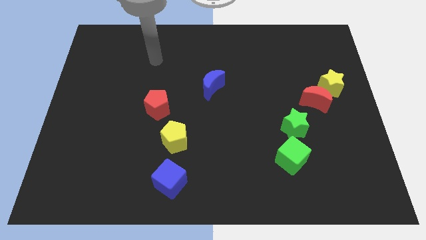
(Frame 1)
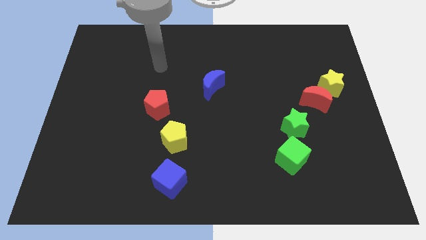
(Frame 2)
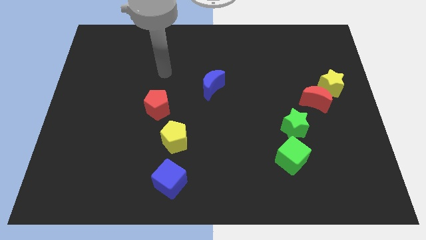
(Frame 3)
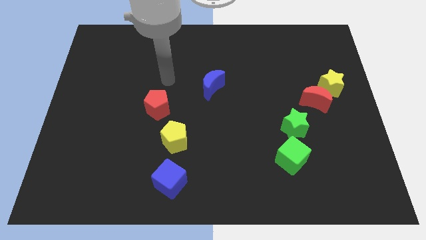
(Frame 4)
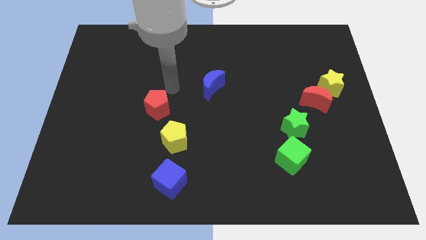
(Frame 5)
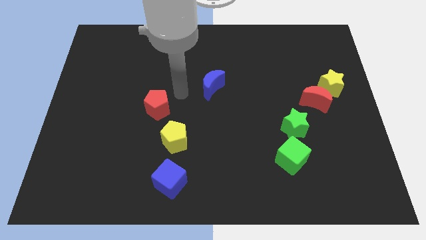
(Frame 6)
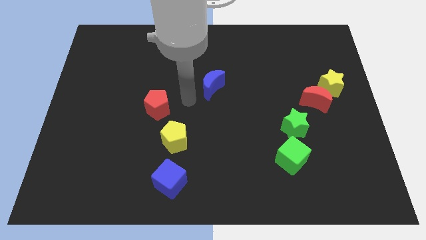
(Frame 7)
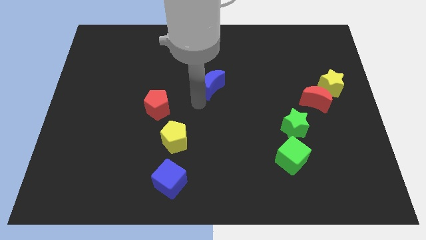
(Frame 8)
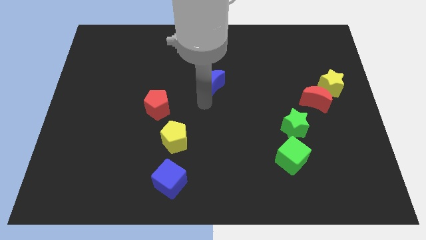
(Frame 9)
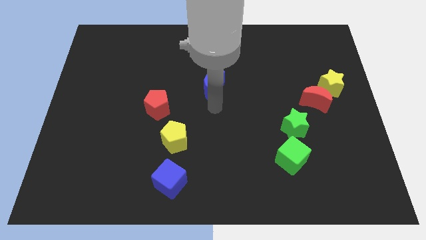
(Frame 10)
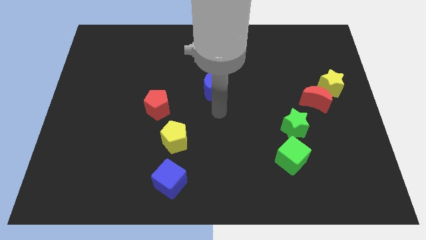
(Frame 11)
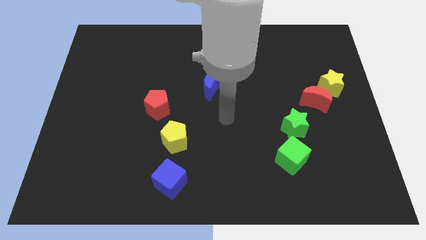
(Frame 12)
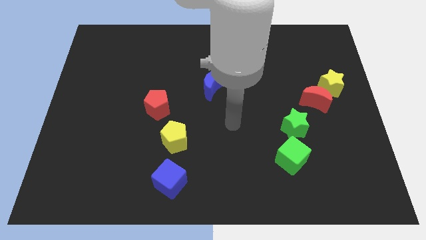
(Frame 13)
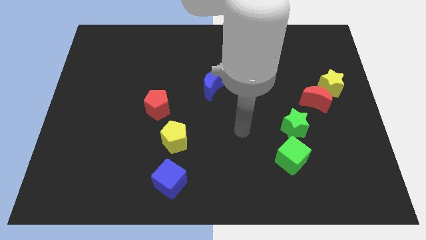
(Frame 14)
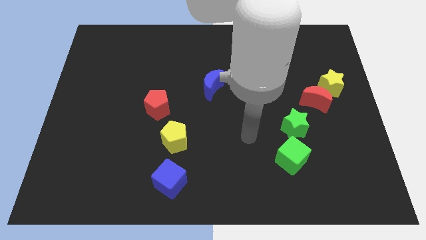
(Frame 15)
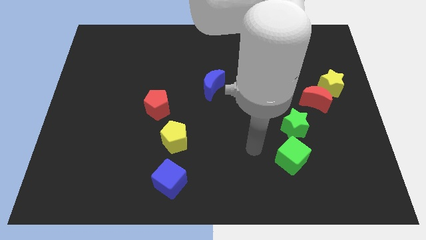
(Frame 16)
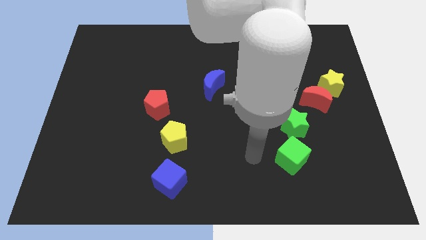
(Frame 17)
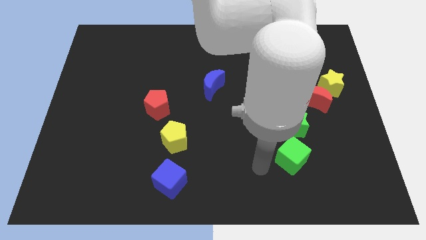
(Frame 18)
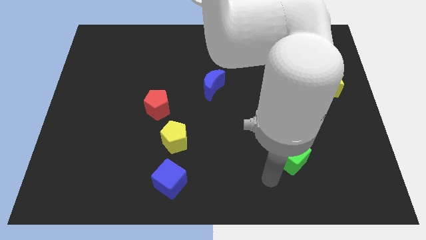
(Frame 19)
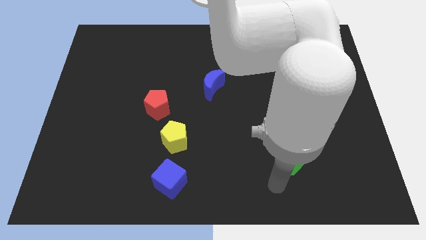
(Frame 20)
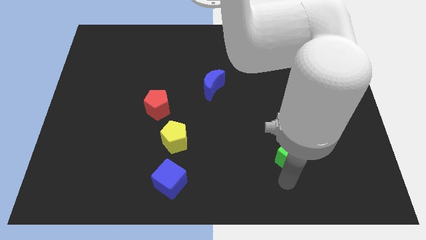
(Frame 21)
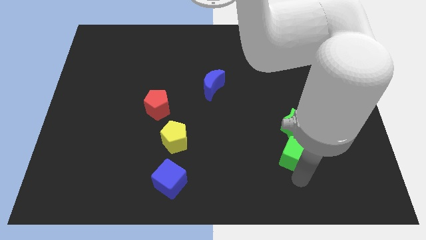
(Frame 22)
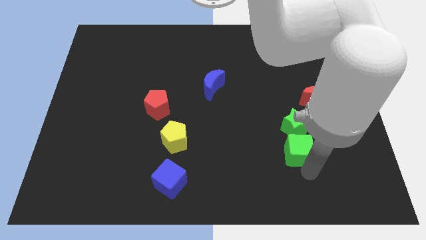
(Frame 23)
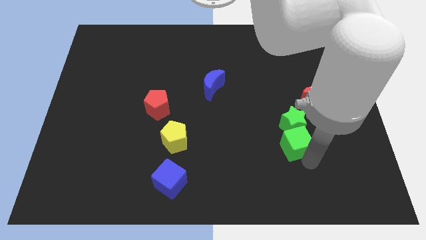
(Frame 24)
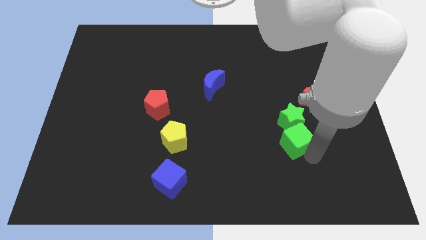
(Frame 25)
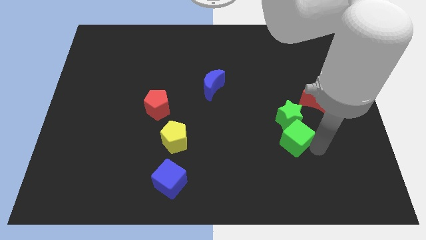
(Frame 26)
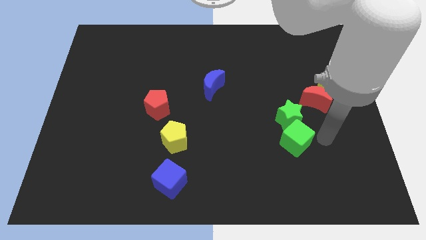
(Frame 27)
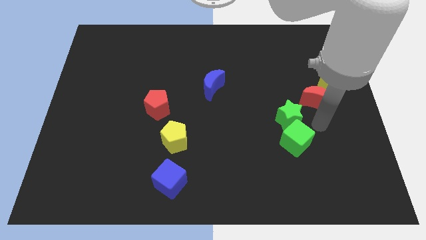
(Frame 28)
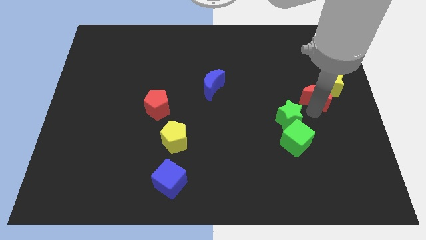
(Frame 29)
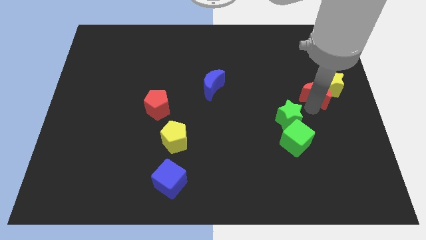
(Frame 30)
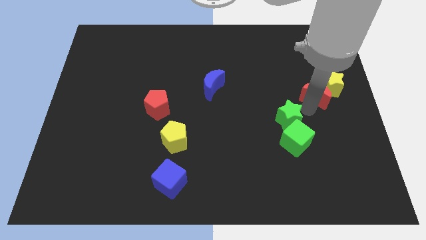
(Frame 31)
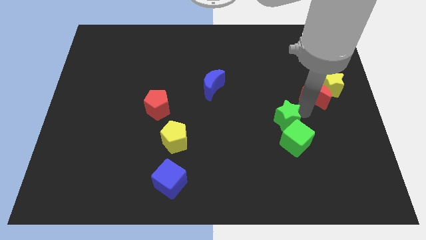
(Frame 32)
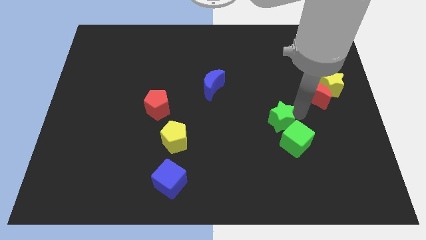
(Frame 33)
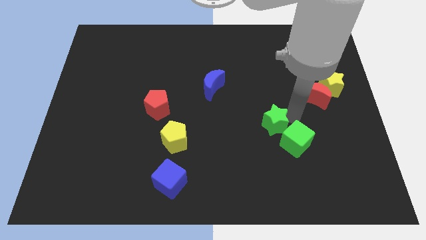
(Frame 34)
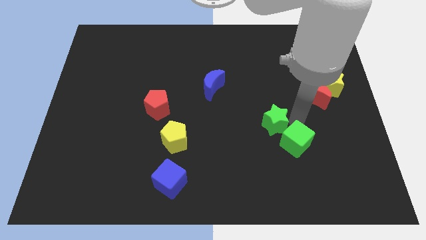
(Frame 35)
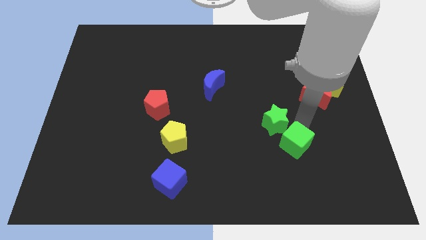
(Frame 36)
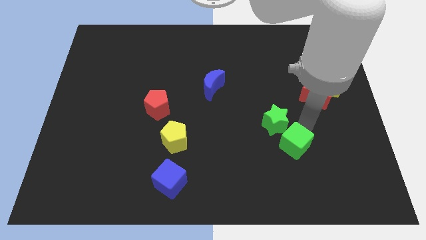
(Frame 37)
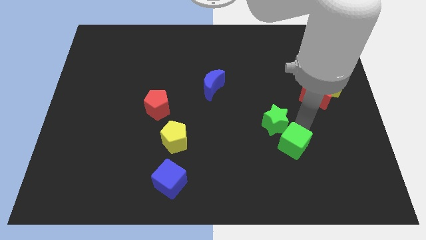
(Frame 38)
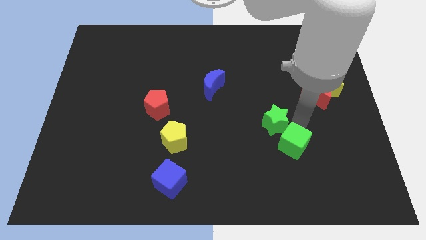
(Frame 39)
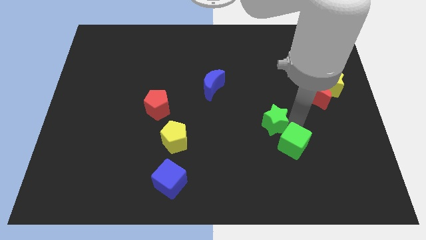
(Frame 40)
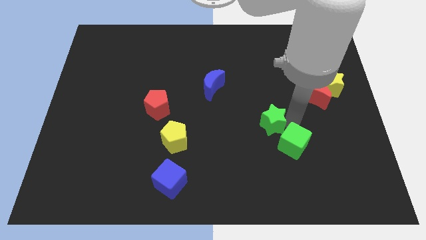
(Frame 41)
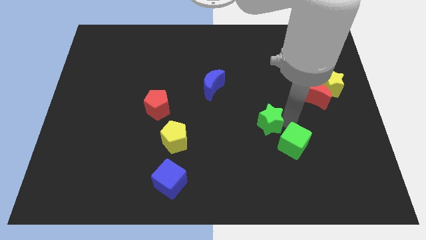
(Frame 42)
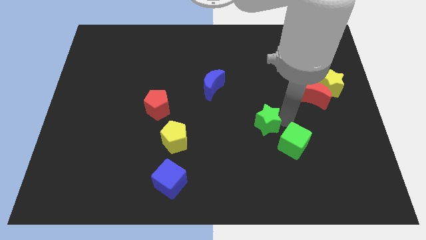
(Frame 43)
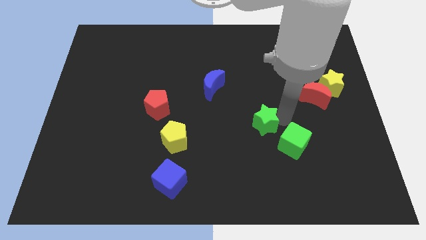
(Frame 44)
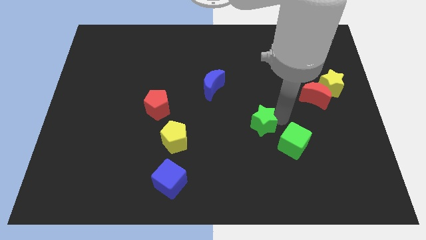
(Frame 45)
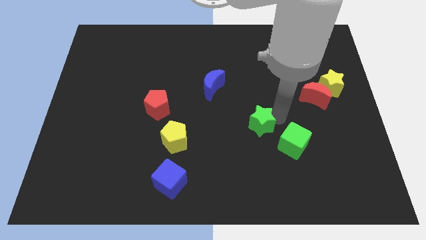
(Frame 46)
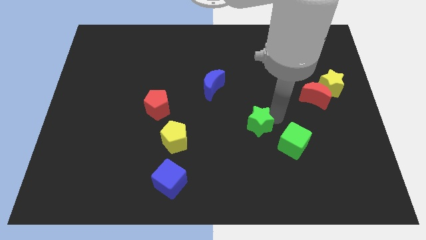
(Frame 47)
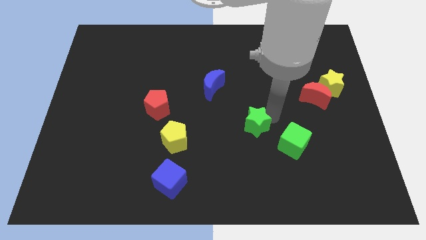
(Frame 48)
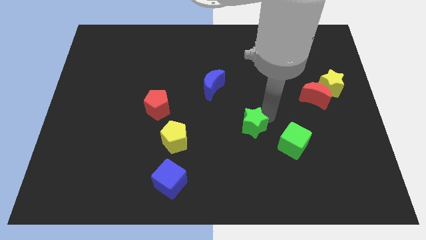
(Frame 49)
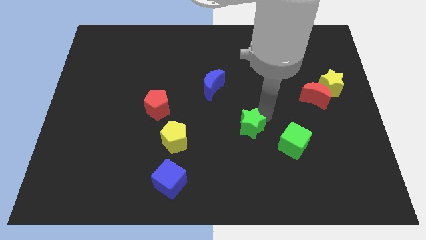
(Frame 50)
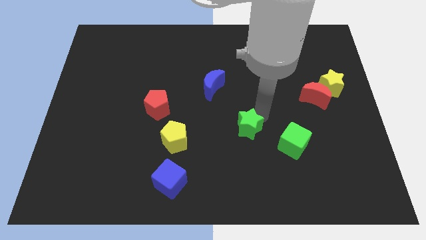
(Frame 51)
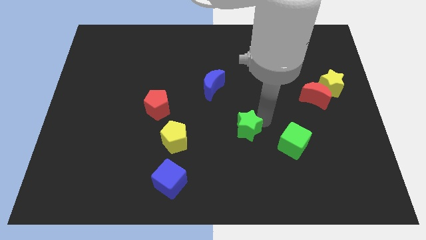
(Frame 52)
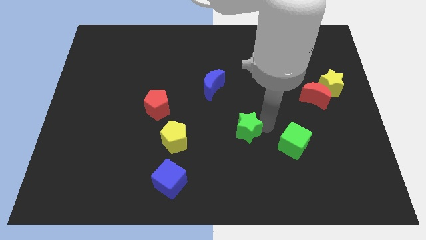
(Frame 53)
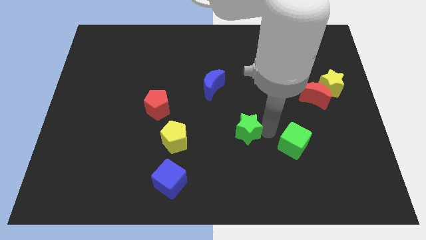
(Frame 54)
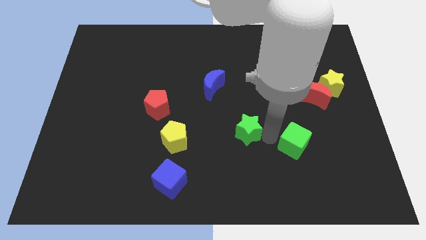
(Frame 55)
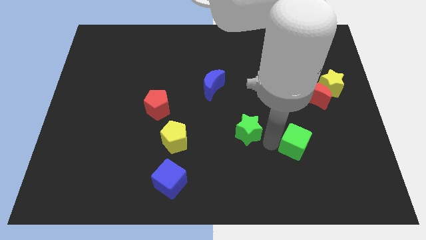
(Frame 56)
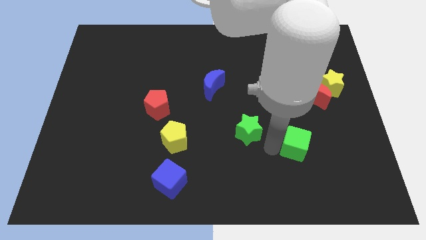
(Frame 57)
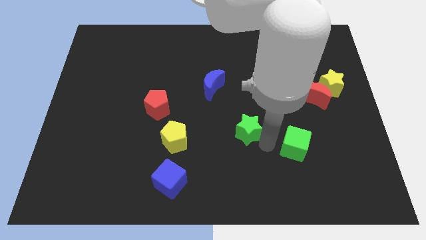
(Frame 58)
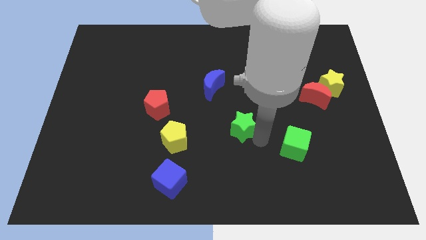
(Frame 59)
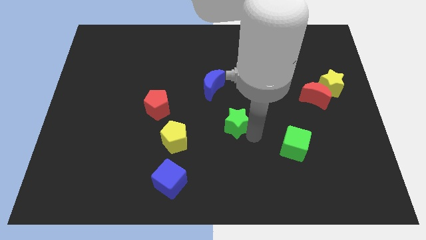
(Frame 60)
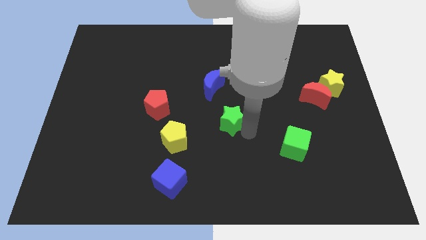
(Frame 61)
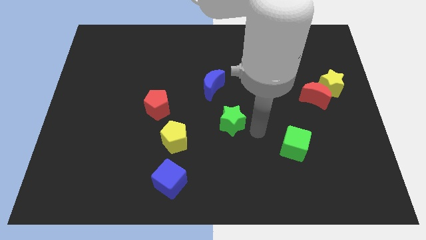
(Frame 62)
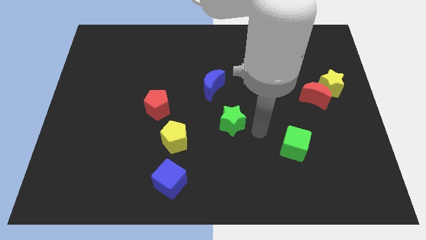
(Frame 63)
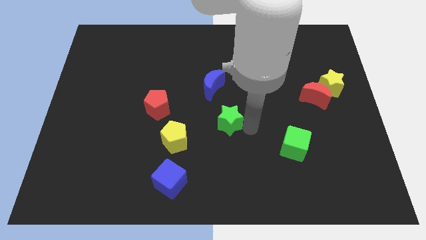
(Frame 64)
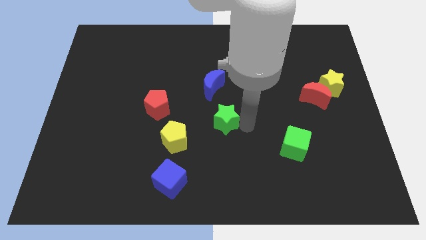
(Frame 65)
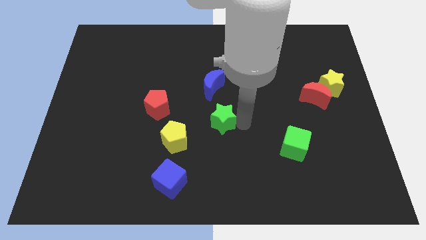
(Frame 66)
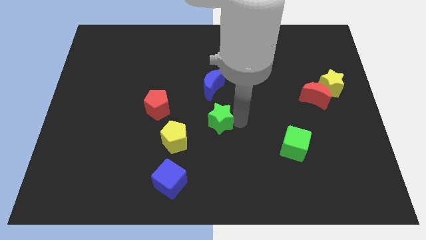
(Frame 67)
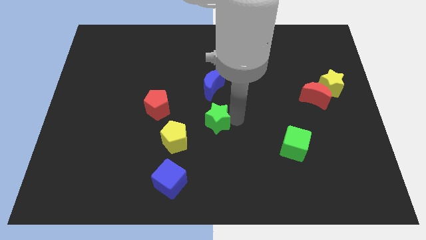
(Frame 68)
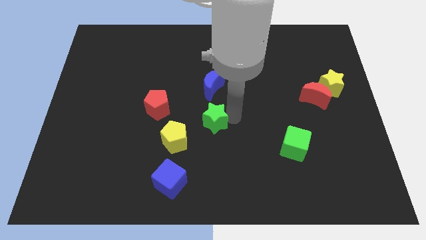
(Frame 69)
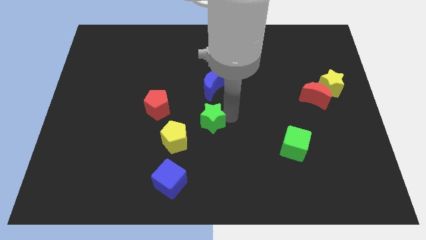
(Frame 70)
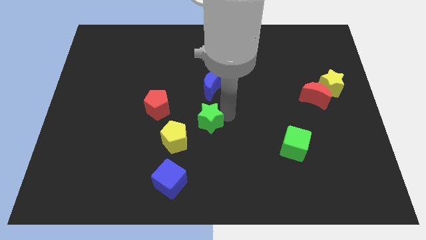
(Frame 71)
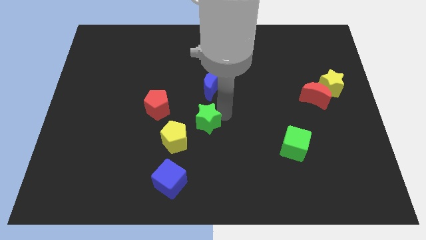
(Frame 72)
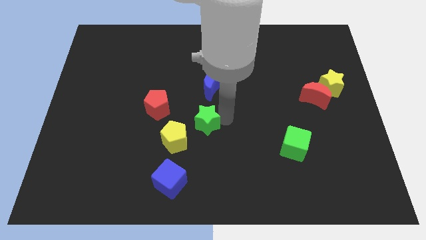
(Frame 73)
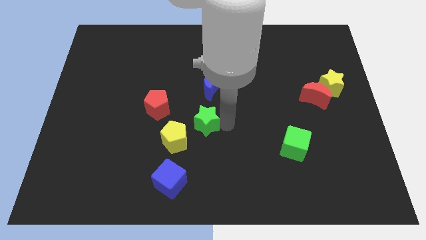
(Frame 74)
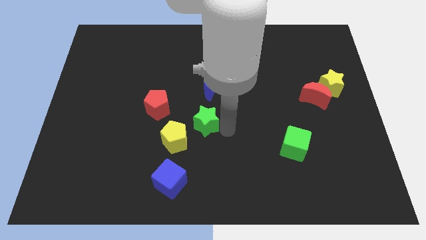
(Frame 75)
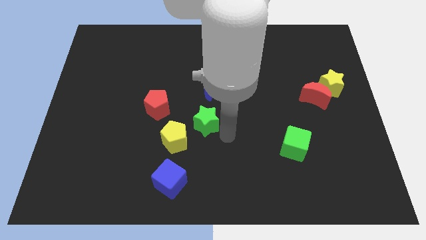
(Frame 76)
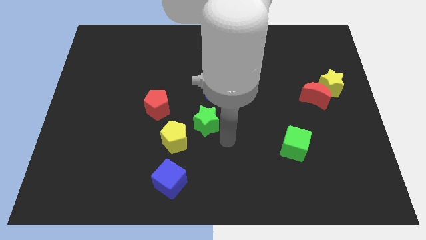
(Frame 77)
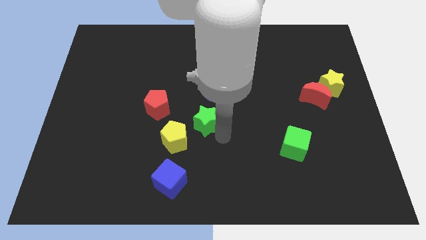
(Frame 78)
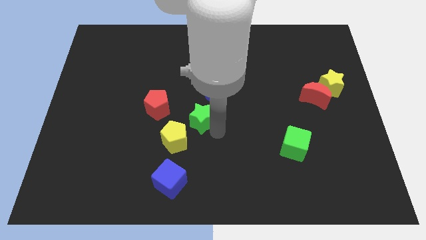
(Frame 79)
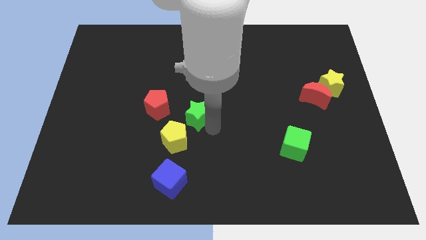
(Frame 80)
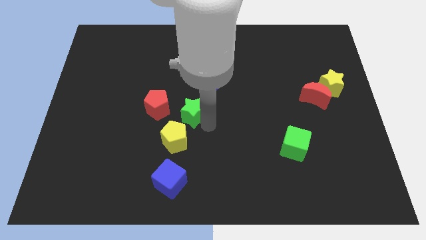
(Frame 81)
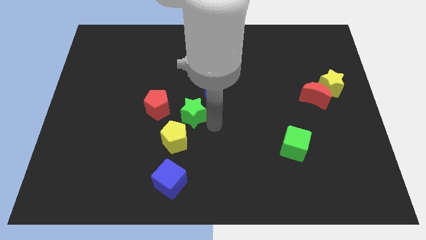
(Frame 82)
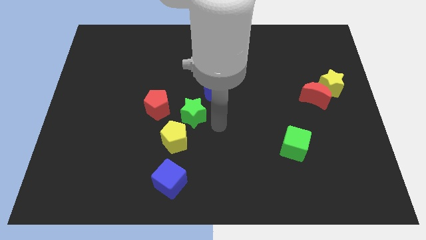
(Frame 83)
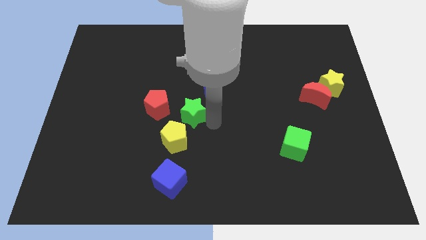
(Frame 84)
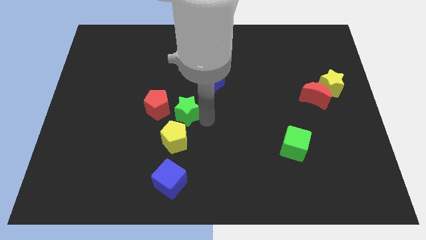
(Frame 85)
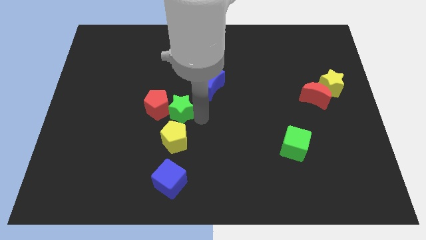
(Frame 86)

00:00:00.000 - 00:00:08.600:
push the green star close to the red pentagon
